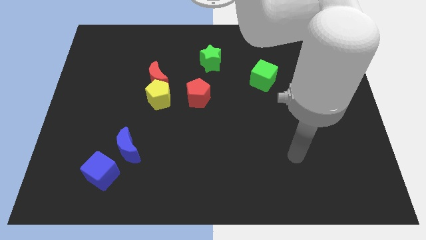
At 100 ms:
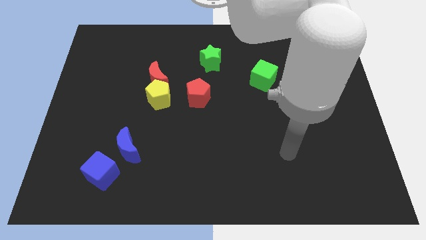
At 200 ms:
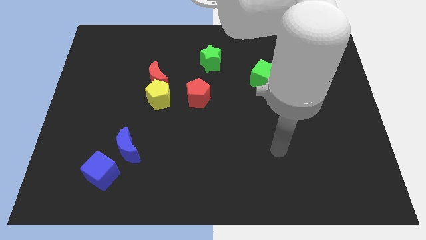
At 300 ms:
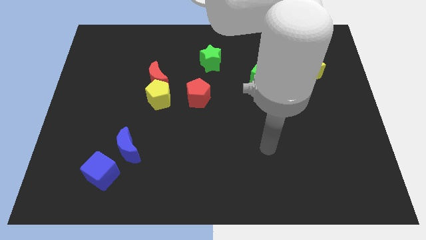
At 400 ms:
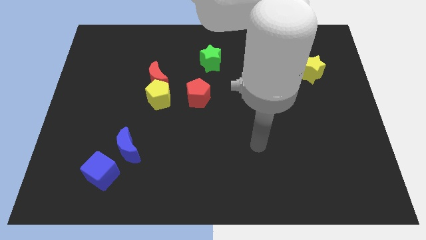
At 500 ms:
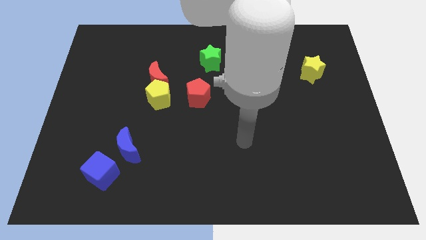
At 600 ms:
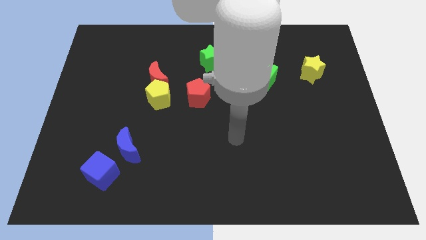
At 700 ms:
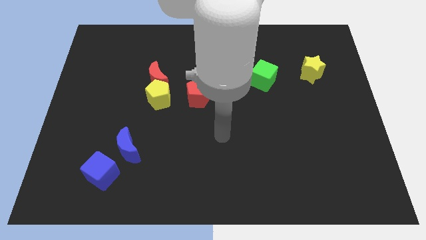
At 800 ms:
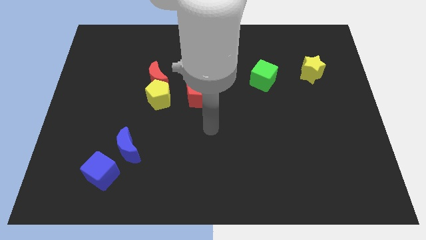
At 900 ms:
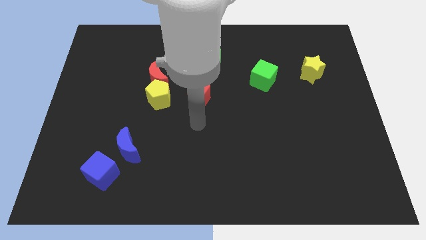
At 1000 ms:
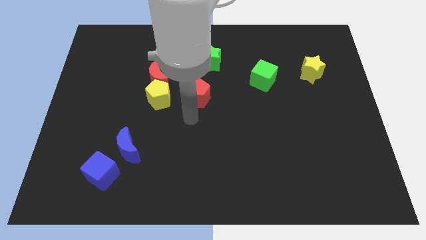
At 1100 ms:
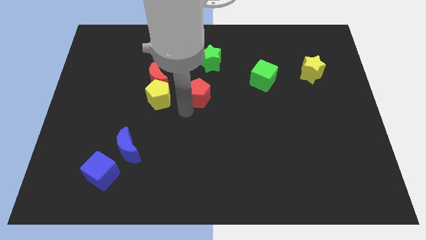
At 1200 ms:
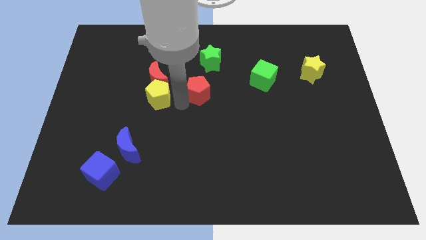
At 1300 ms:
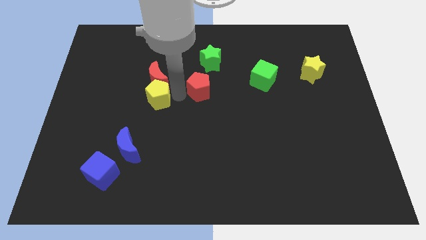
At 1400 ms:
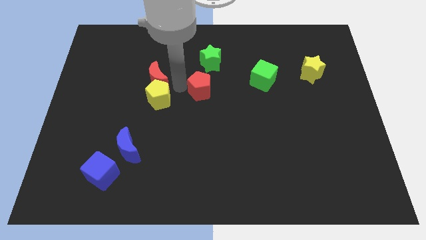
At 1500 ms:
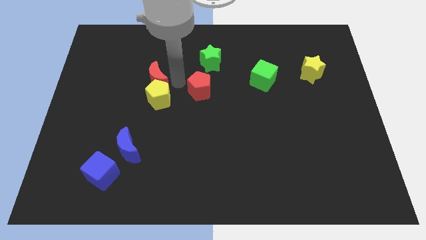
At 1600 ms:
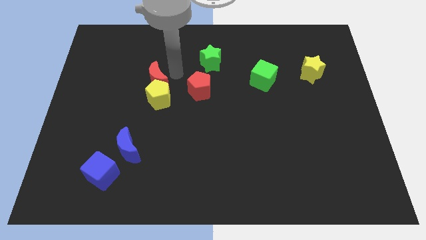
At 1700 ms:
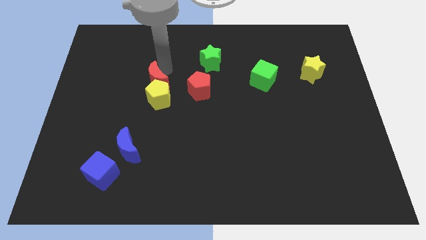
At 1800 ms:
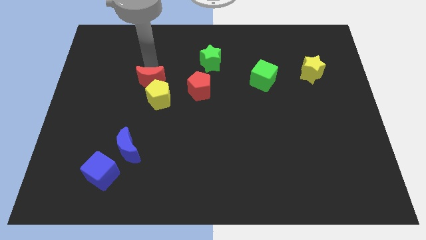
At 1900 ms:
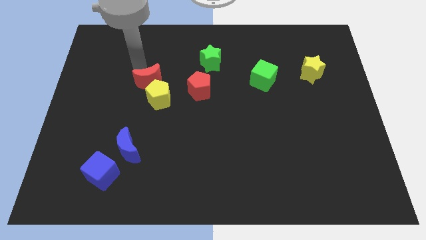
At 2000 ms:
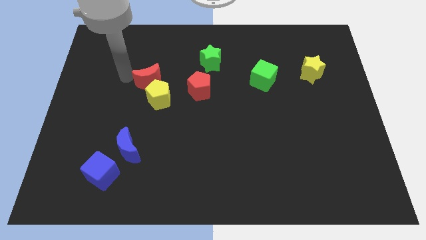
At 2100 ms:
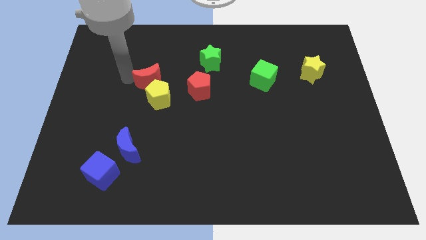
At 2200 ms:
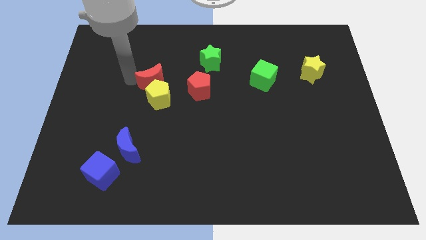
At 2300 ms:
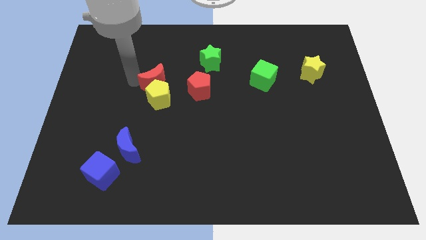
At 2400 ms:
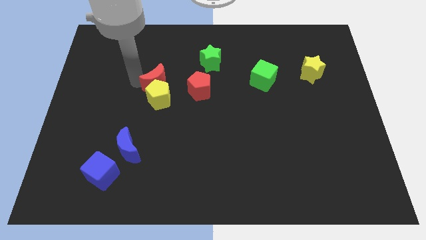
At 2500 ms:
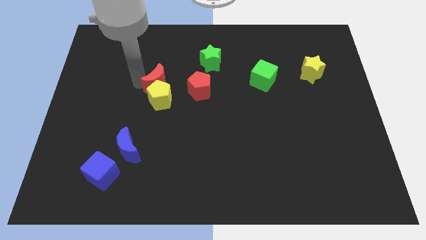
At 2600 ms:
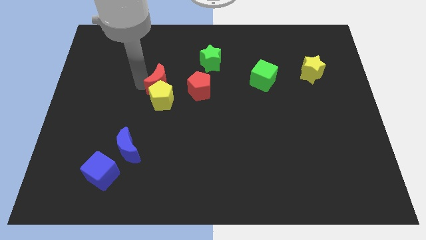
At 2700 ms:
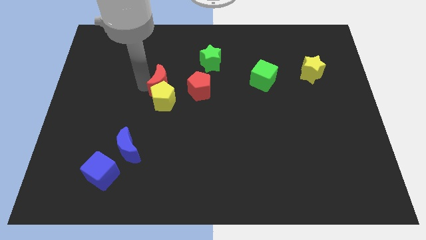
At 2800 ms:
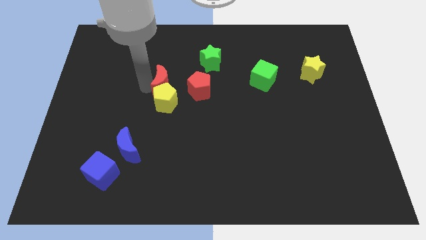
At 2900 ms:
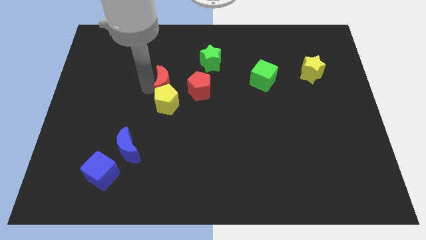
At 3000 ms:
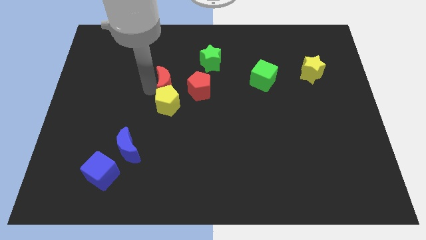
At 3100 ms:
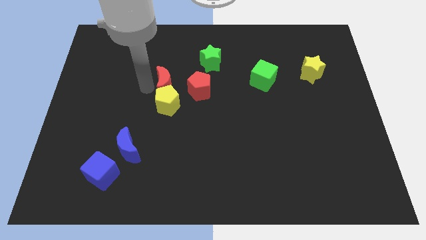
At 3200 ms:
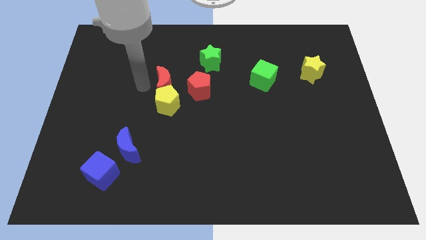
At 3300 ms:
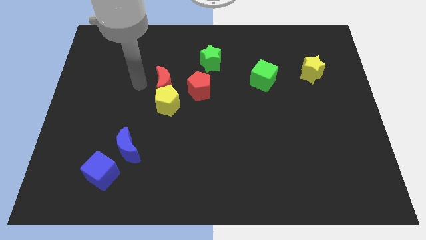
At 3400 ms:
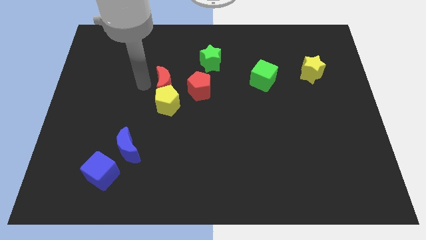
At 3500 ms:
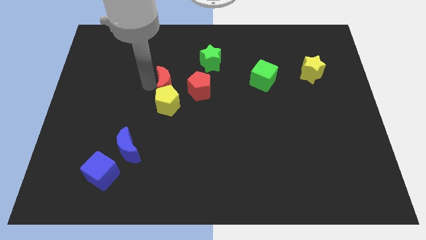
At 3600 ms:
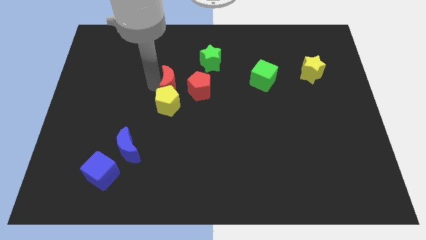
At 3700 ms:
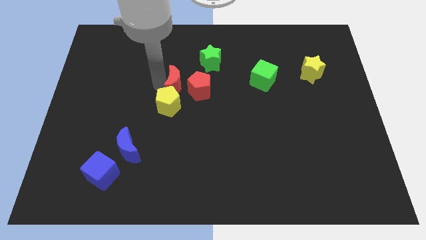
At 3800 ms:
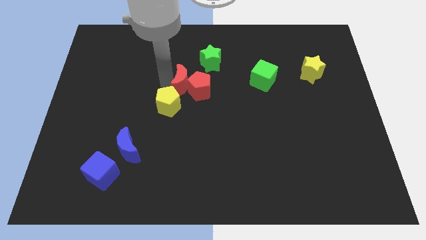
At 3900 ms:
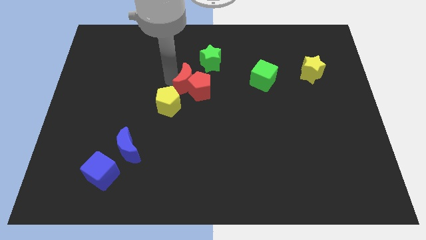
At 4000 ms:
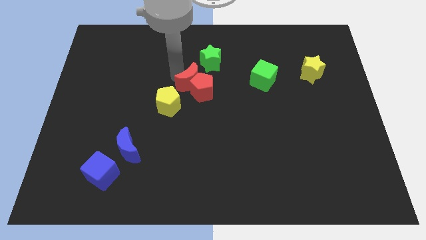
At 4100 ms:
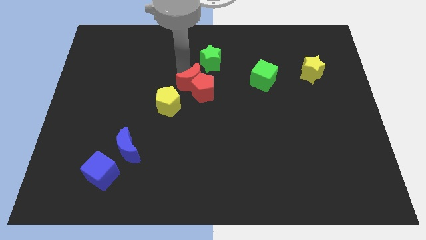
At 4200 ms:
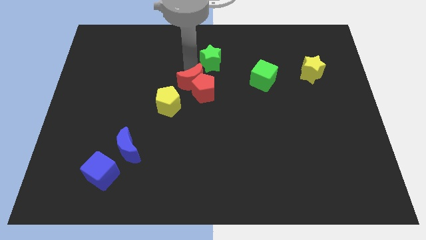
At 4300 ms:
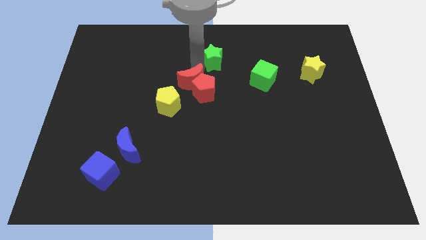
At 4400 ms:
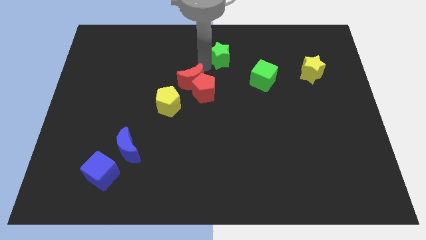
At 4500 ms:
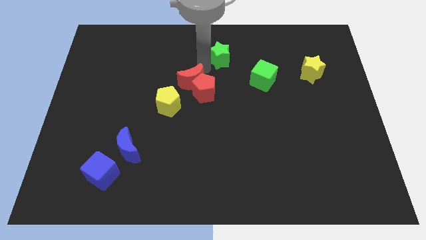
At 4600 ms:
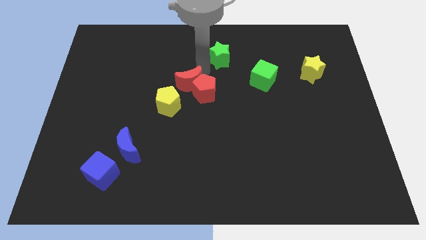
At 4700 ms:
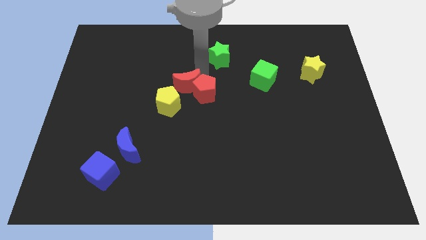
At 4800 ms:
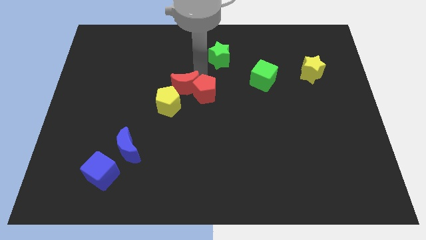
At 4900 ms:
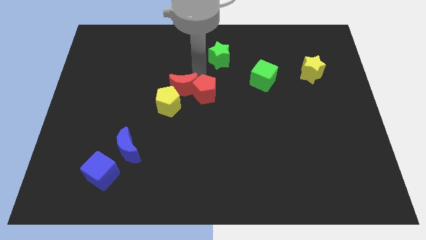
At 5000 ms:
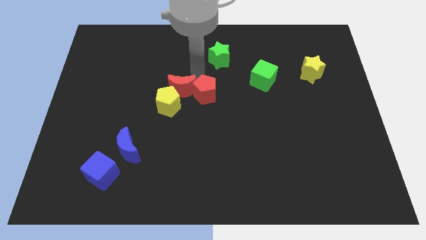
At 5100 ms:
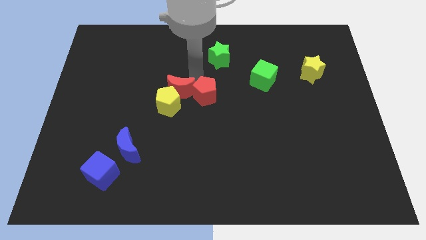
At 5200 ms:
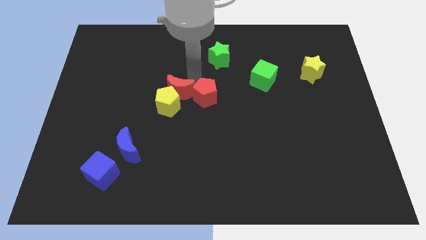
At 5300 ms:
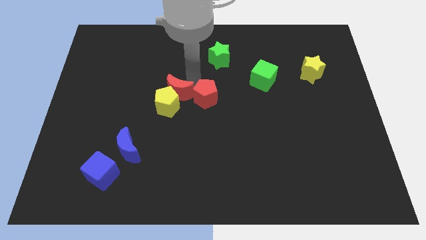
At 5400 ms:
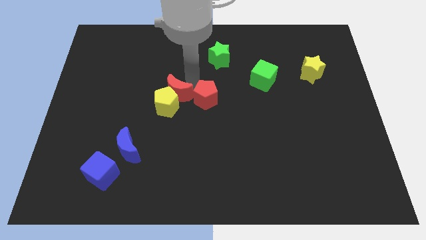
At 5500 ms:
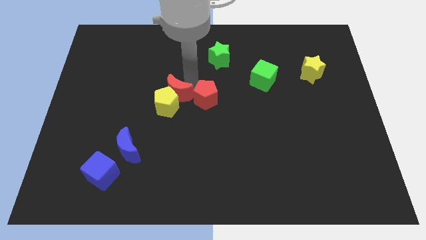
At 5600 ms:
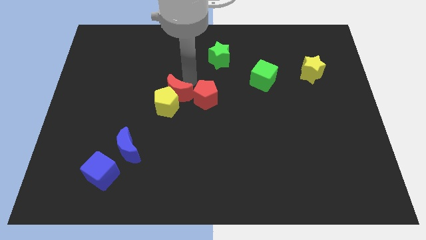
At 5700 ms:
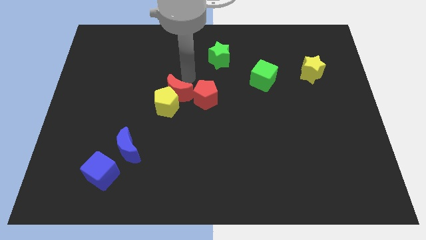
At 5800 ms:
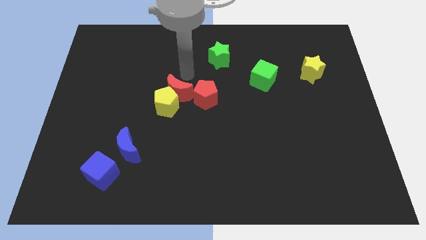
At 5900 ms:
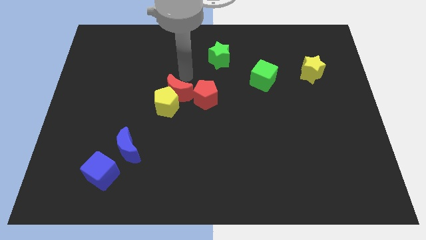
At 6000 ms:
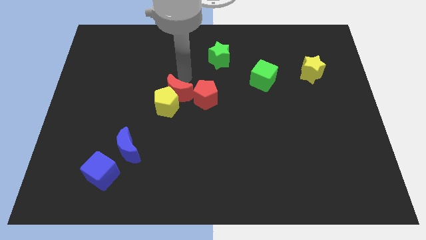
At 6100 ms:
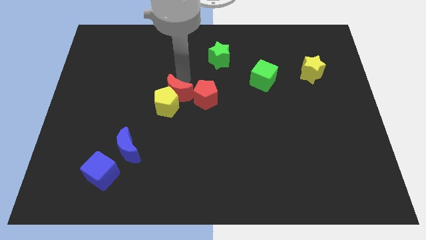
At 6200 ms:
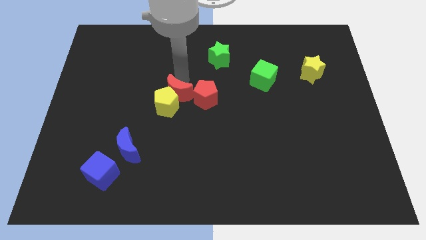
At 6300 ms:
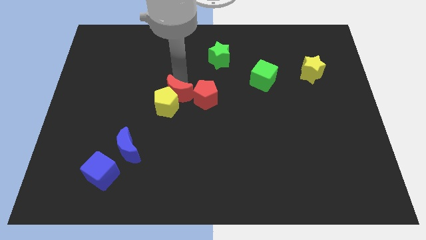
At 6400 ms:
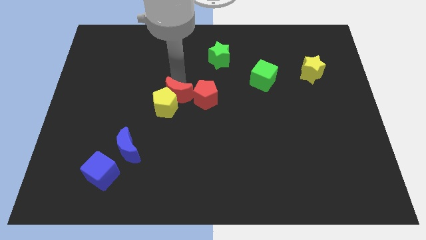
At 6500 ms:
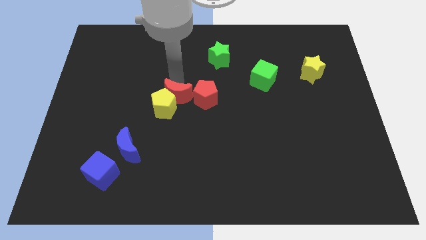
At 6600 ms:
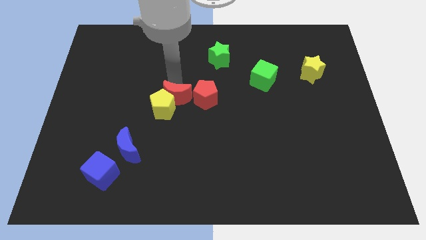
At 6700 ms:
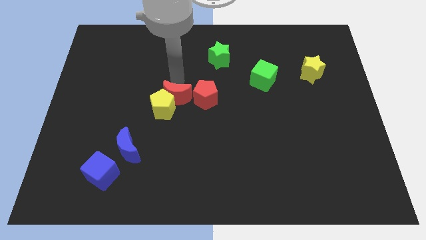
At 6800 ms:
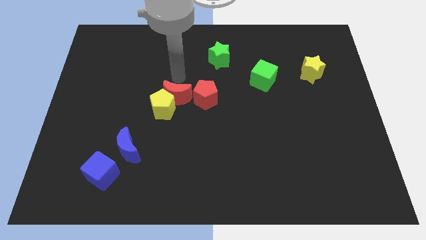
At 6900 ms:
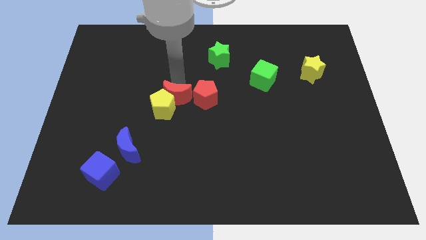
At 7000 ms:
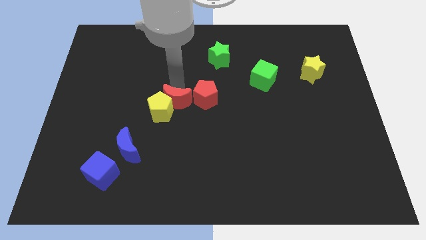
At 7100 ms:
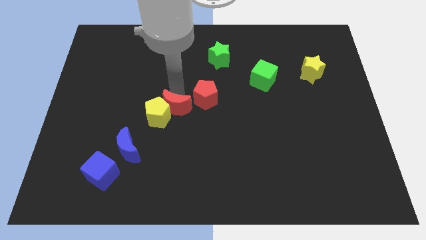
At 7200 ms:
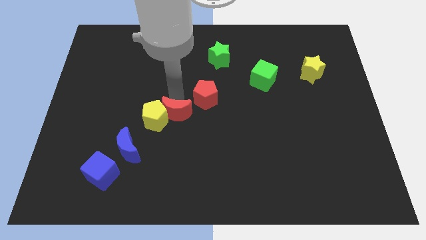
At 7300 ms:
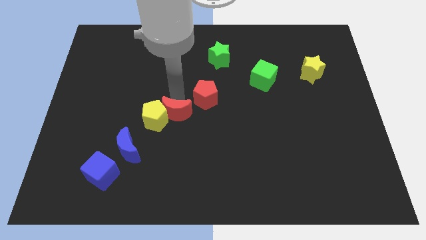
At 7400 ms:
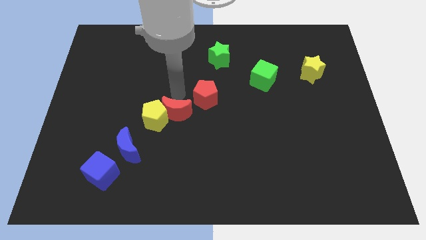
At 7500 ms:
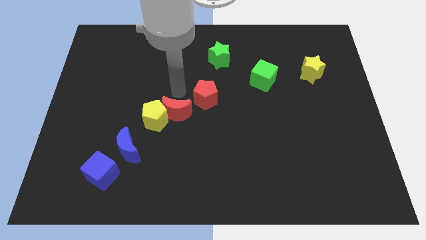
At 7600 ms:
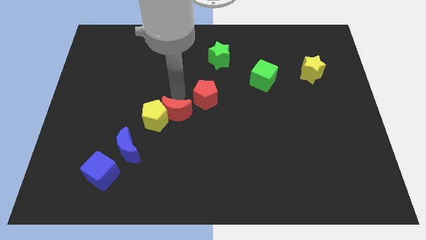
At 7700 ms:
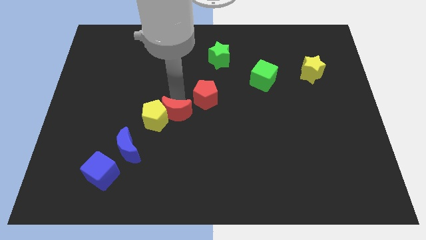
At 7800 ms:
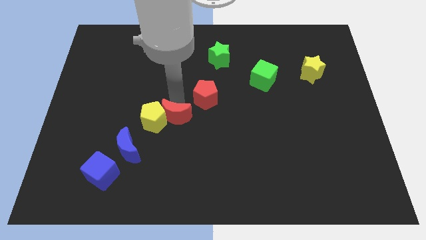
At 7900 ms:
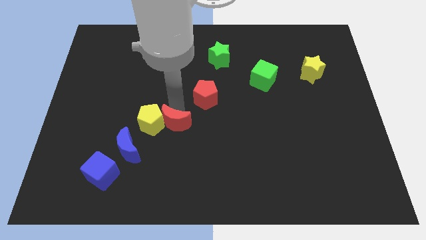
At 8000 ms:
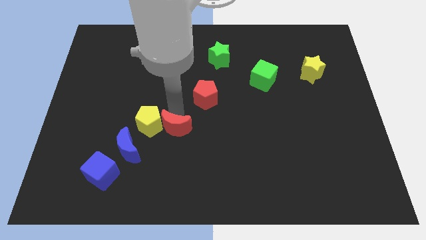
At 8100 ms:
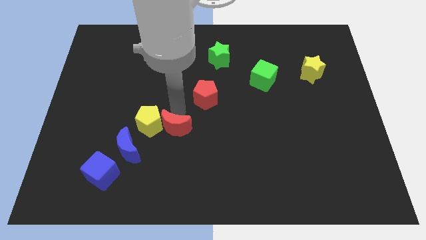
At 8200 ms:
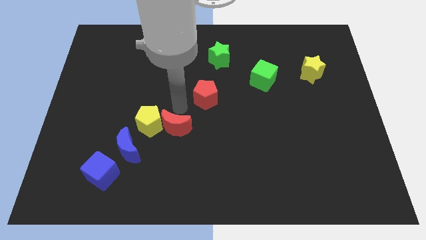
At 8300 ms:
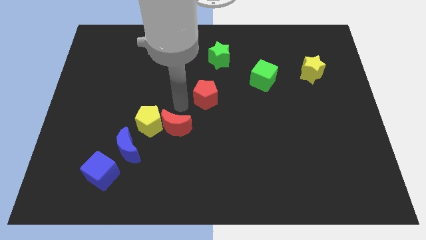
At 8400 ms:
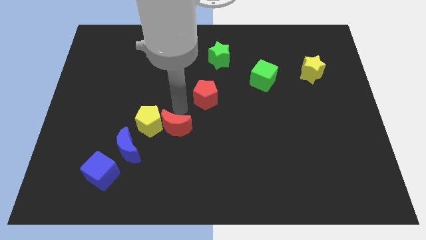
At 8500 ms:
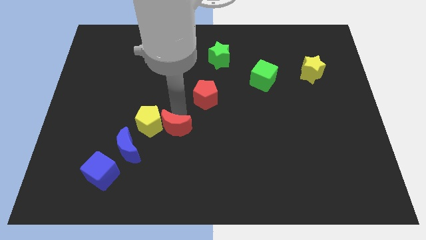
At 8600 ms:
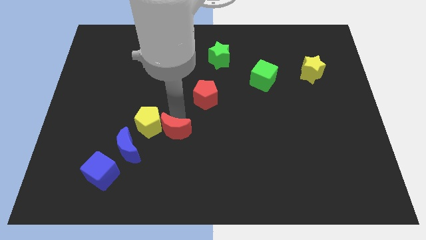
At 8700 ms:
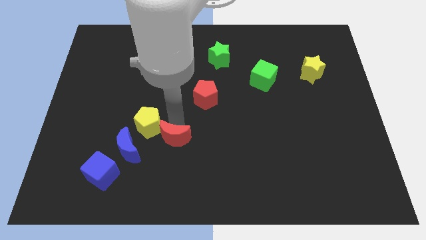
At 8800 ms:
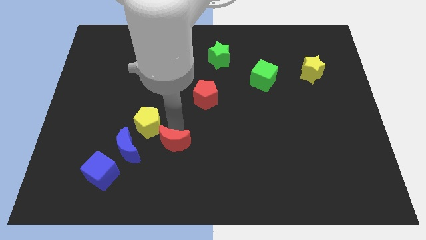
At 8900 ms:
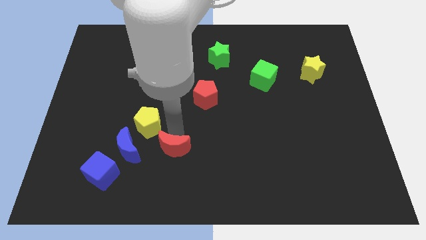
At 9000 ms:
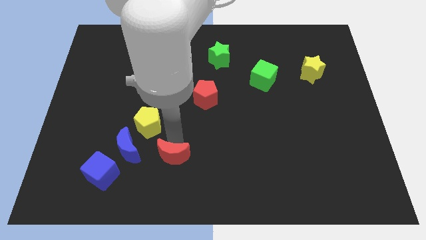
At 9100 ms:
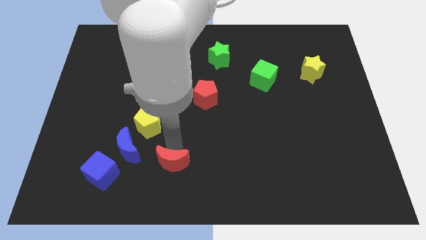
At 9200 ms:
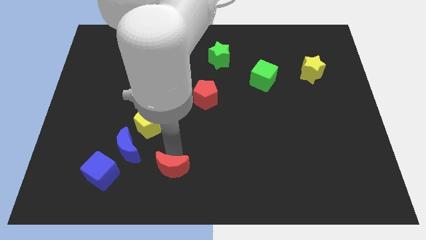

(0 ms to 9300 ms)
put the red moon to the bottom
